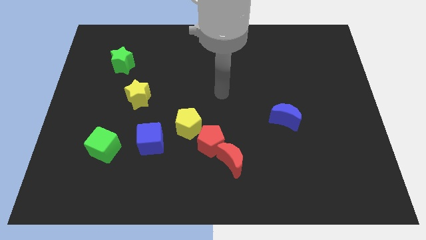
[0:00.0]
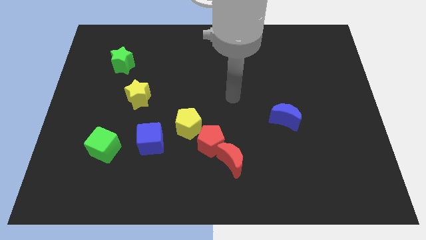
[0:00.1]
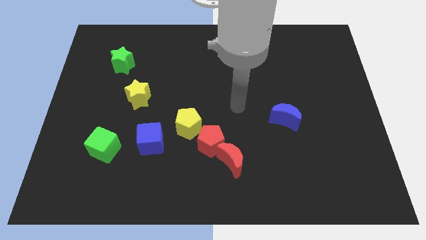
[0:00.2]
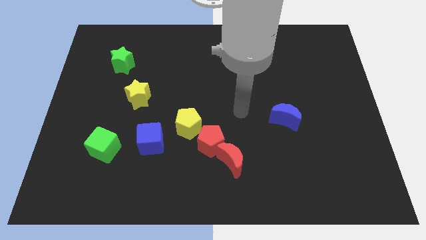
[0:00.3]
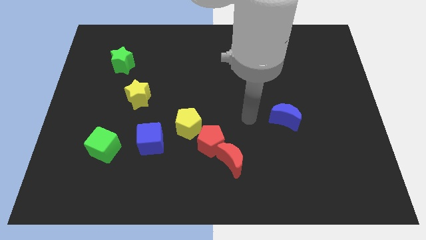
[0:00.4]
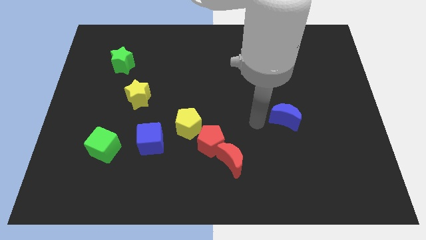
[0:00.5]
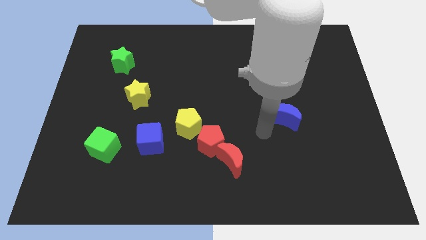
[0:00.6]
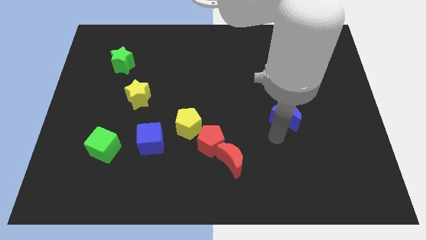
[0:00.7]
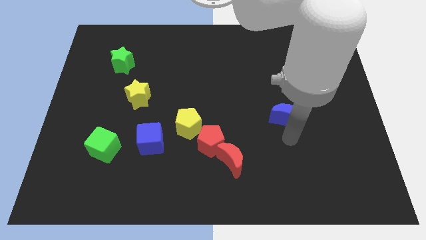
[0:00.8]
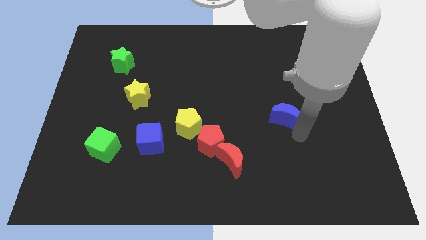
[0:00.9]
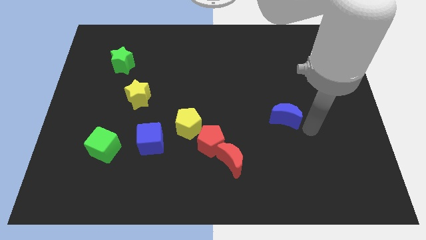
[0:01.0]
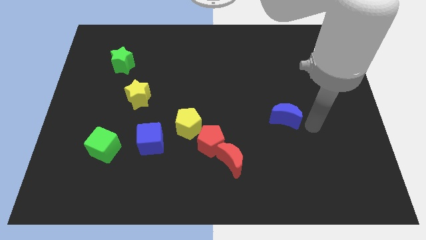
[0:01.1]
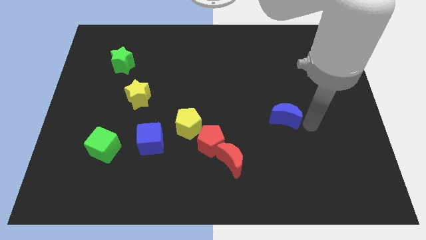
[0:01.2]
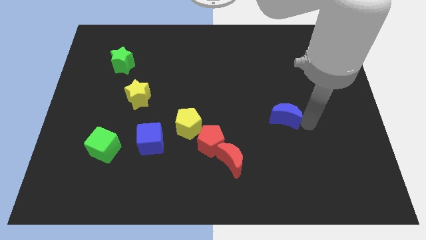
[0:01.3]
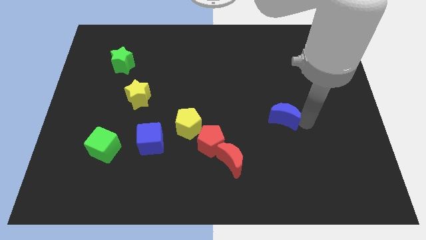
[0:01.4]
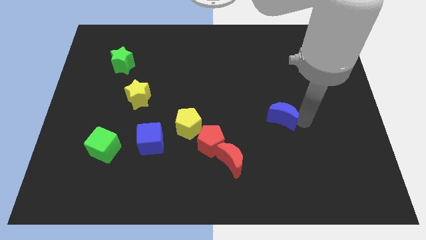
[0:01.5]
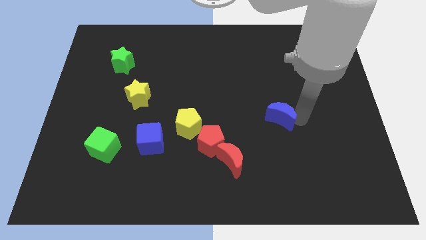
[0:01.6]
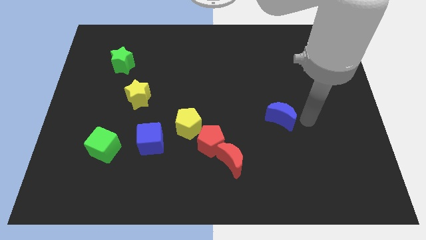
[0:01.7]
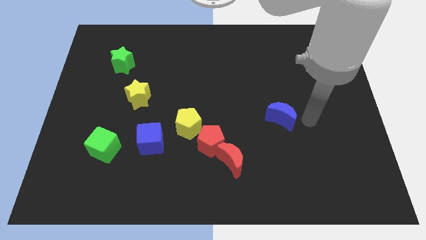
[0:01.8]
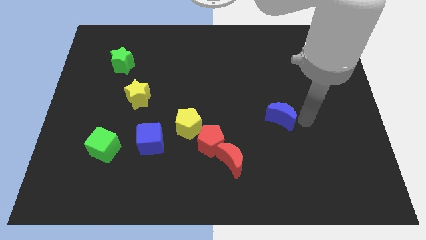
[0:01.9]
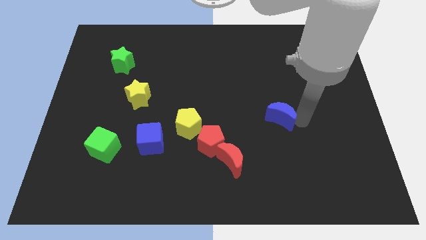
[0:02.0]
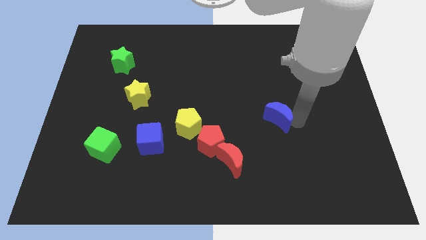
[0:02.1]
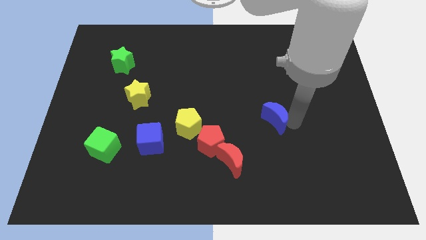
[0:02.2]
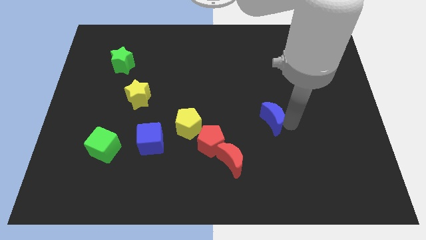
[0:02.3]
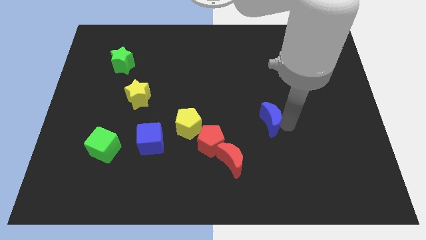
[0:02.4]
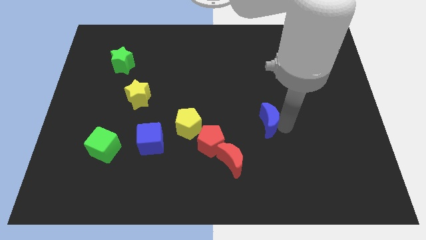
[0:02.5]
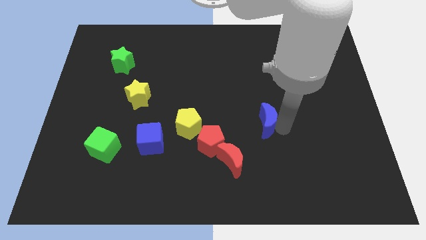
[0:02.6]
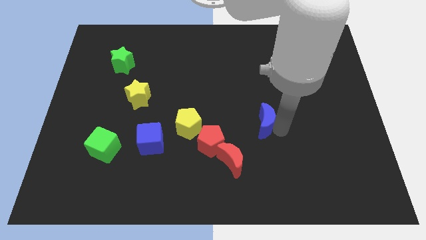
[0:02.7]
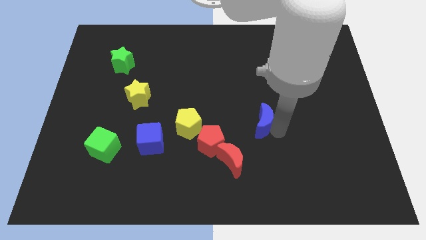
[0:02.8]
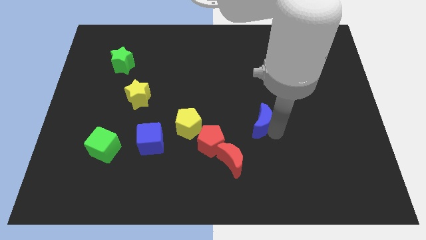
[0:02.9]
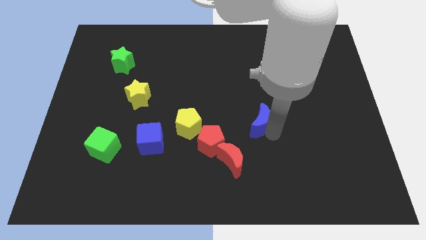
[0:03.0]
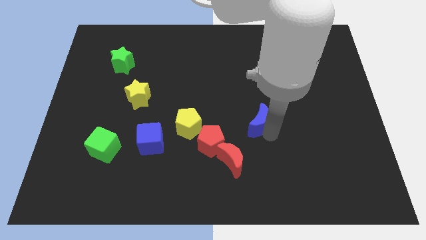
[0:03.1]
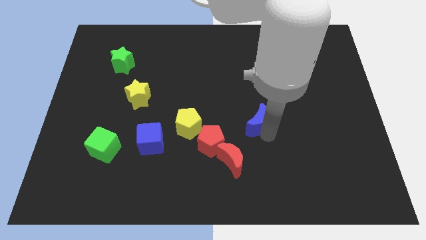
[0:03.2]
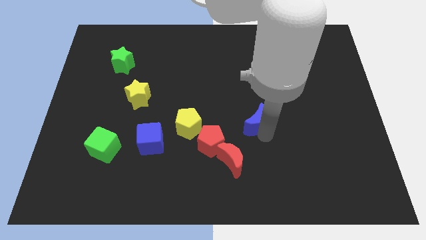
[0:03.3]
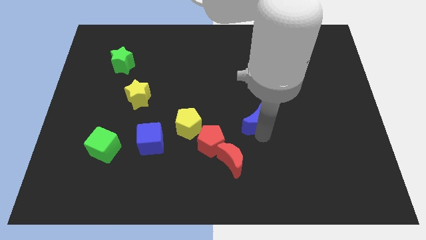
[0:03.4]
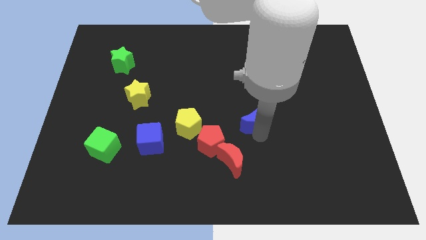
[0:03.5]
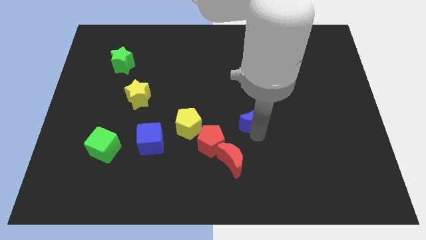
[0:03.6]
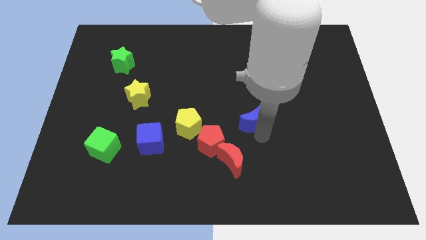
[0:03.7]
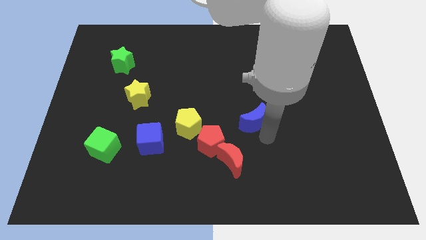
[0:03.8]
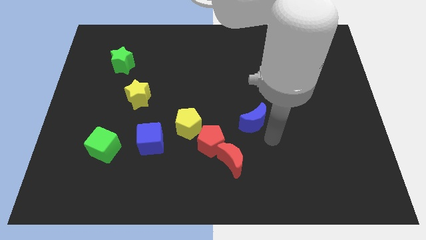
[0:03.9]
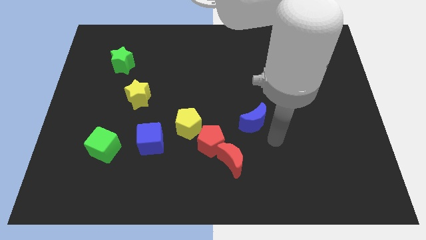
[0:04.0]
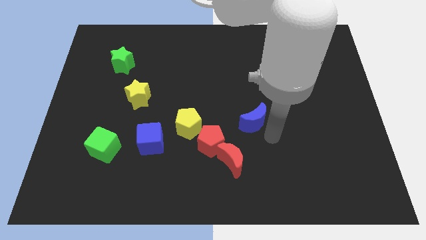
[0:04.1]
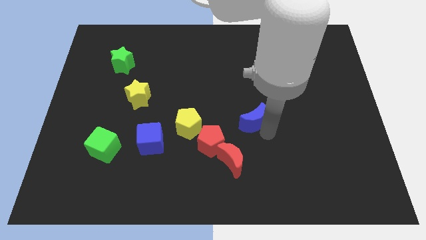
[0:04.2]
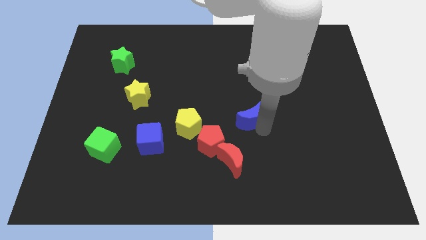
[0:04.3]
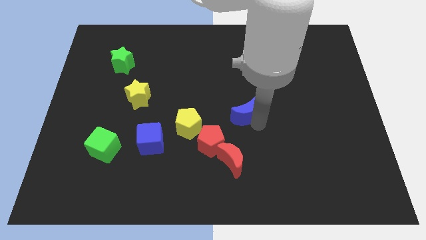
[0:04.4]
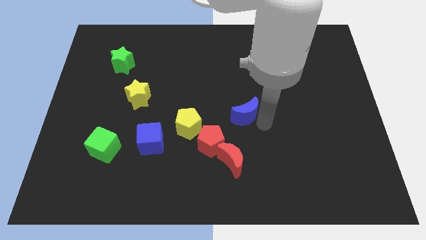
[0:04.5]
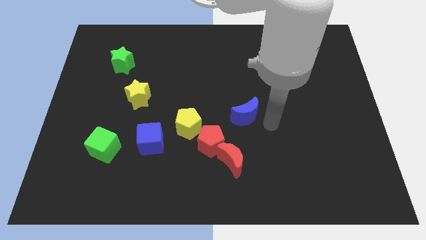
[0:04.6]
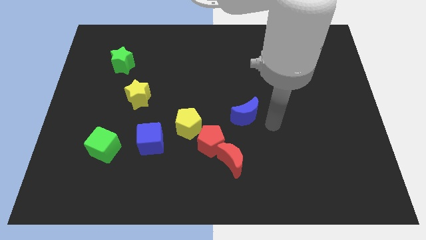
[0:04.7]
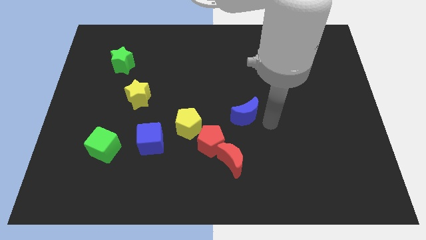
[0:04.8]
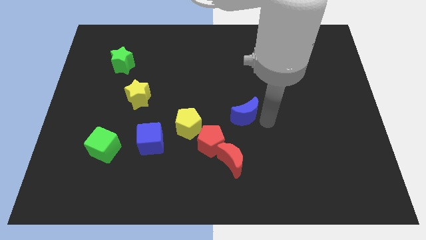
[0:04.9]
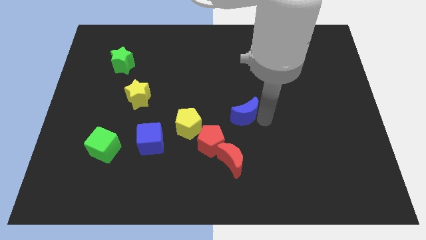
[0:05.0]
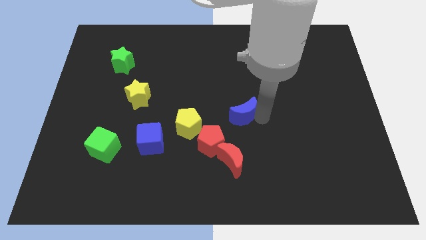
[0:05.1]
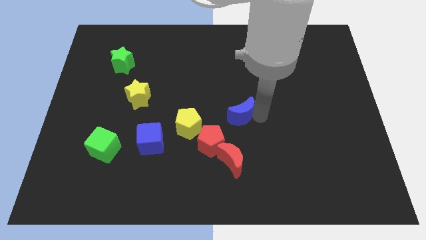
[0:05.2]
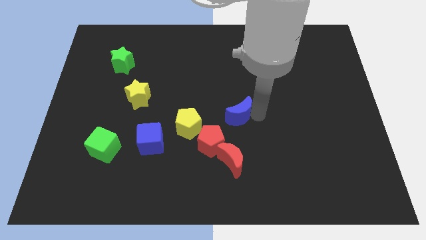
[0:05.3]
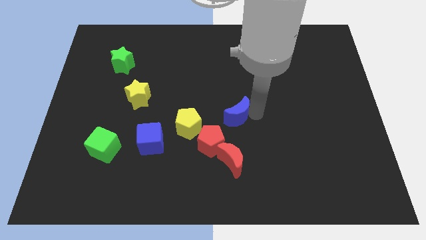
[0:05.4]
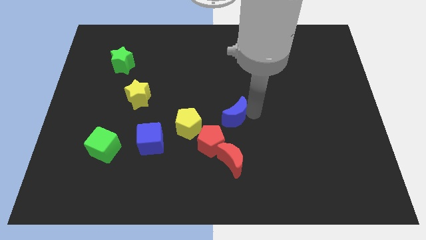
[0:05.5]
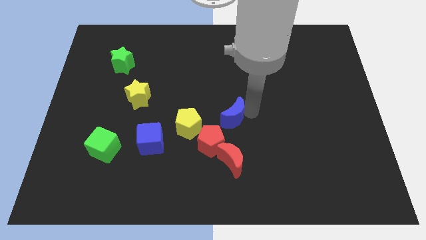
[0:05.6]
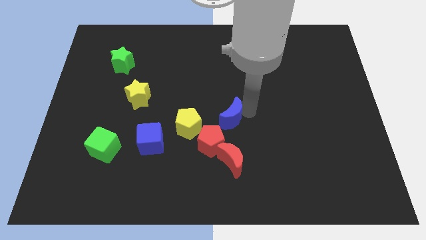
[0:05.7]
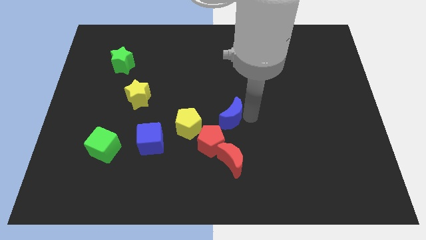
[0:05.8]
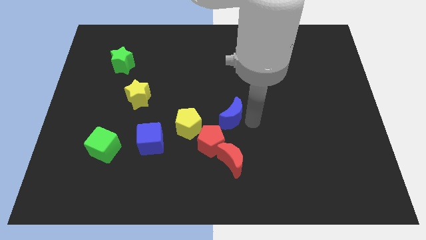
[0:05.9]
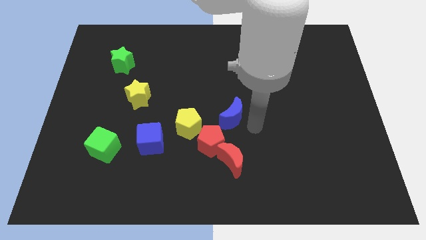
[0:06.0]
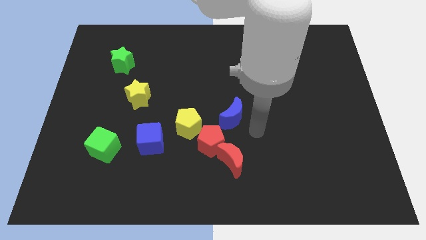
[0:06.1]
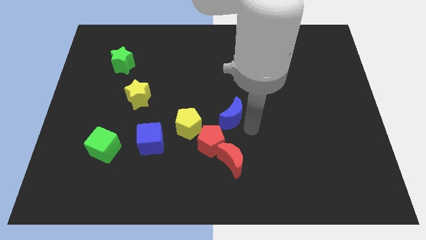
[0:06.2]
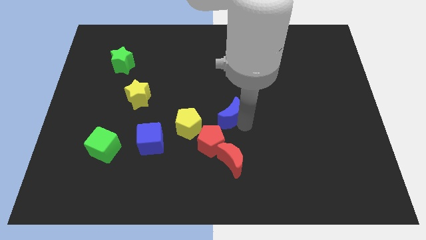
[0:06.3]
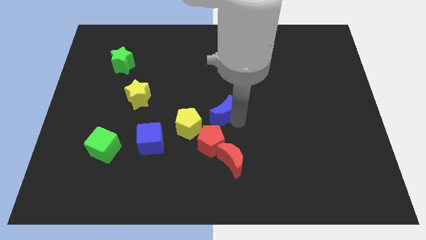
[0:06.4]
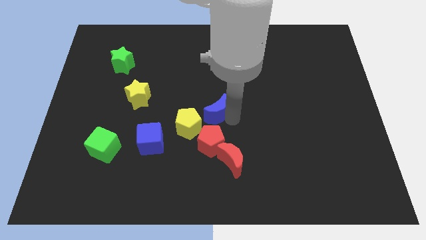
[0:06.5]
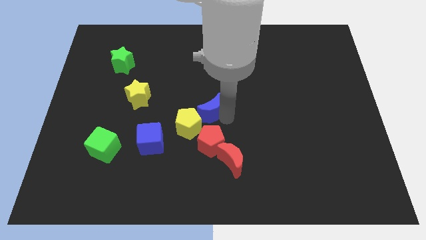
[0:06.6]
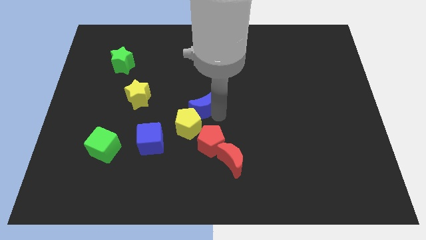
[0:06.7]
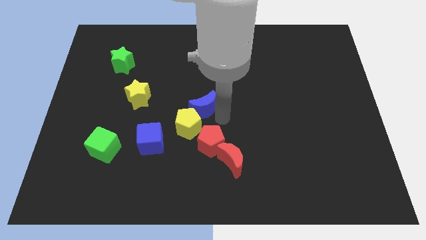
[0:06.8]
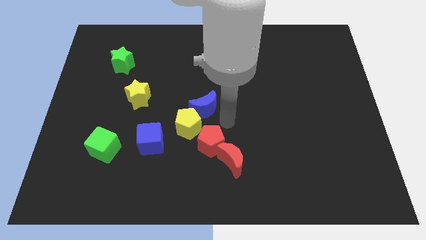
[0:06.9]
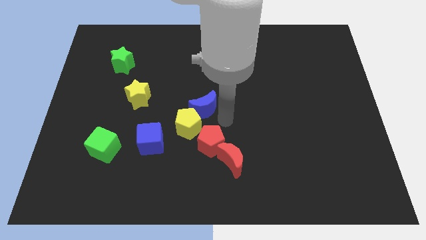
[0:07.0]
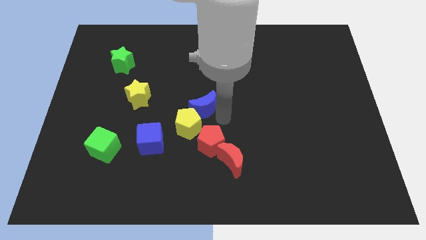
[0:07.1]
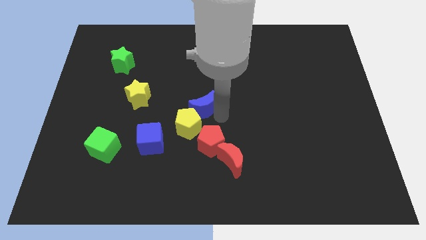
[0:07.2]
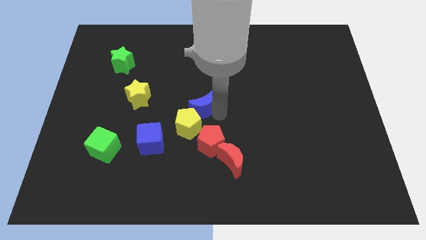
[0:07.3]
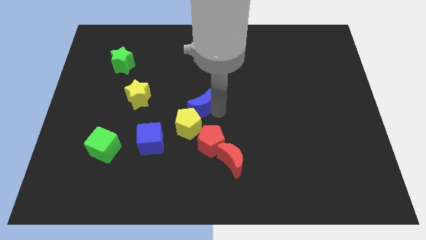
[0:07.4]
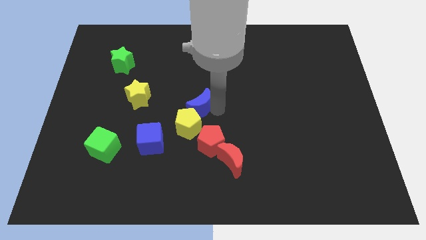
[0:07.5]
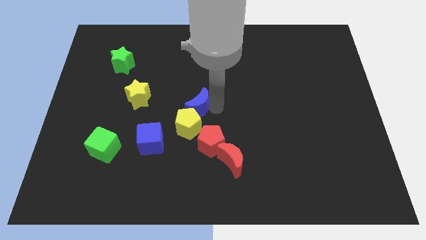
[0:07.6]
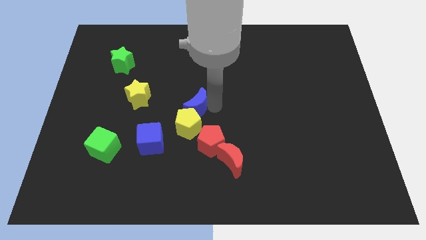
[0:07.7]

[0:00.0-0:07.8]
move the blue moon left

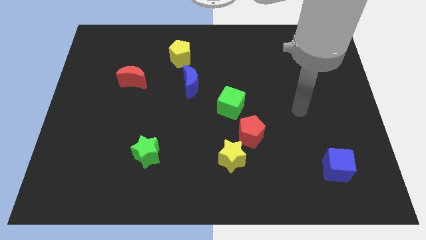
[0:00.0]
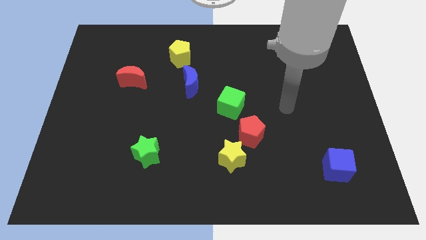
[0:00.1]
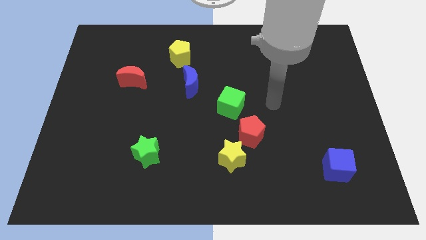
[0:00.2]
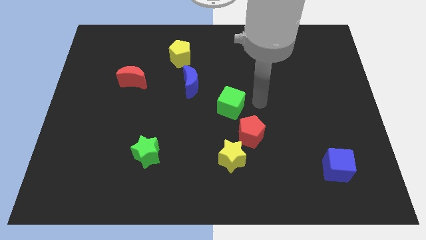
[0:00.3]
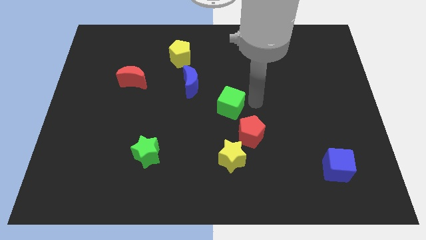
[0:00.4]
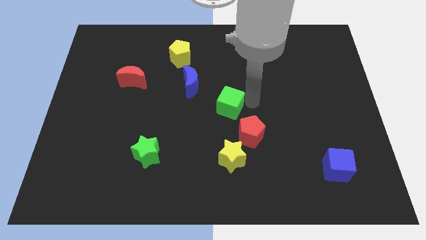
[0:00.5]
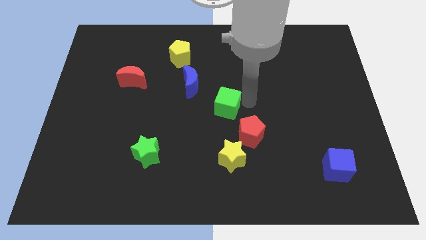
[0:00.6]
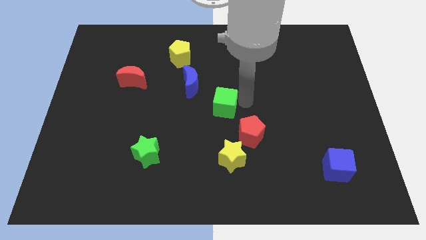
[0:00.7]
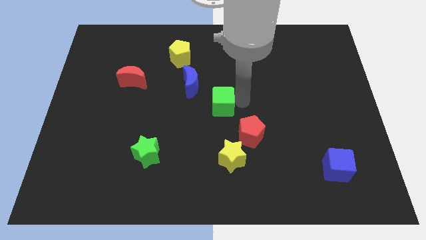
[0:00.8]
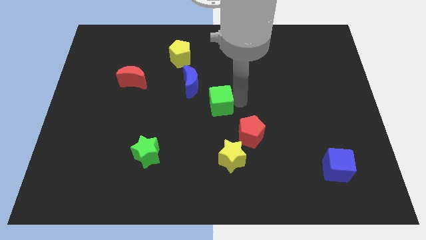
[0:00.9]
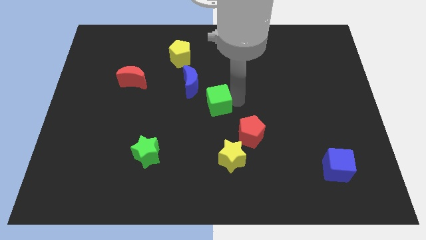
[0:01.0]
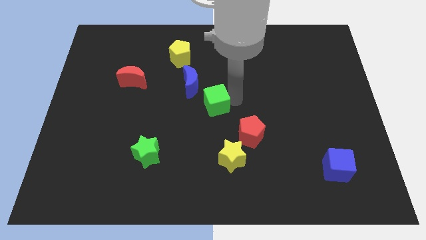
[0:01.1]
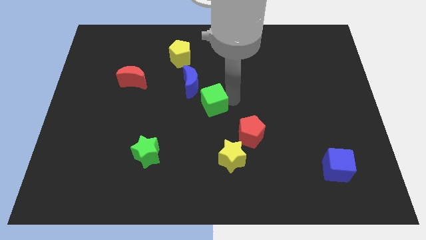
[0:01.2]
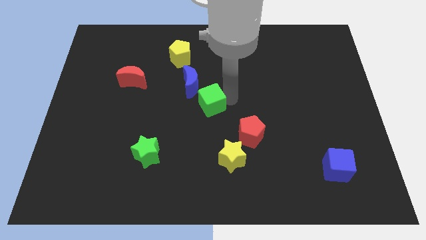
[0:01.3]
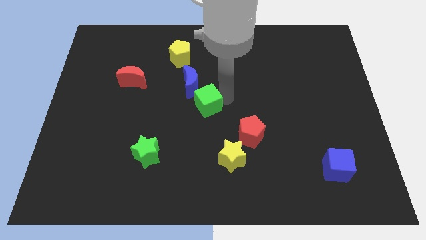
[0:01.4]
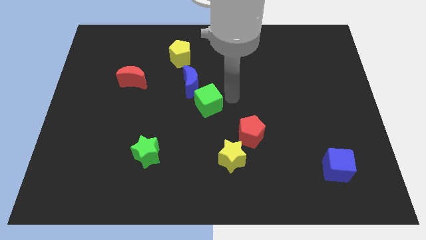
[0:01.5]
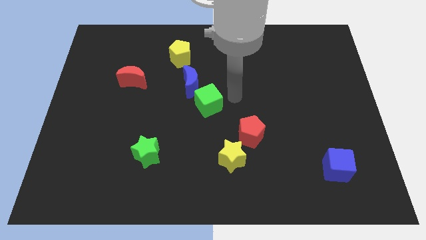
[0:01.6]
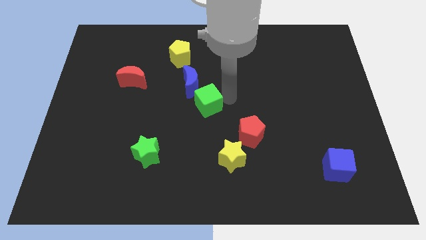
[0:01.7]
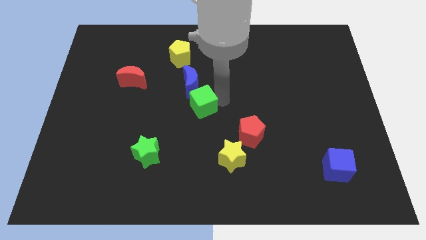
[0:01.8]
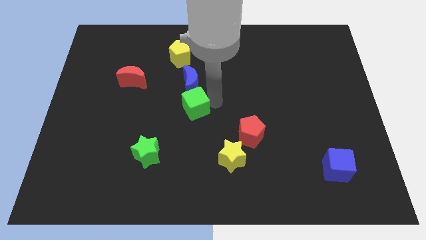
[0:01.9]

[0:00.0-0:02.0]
slightly slide the green cube to the left
